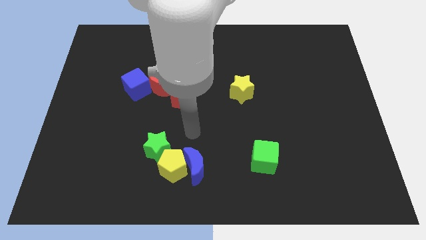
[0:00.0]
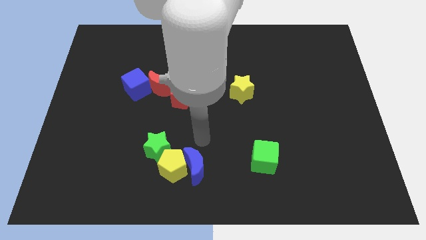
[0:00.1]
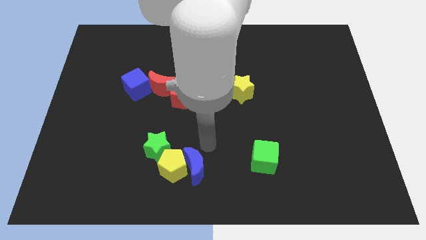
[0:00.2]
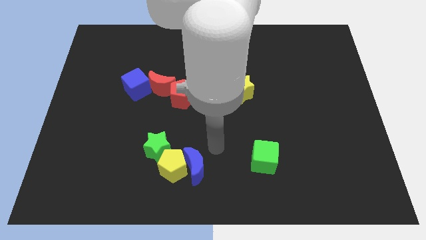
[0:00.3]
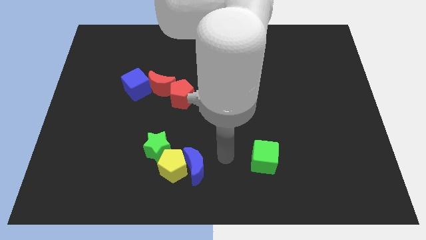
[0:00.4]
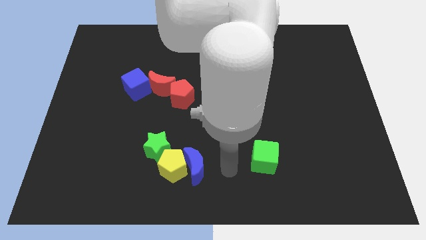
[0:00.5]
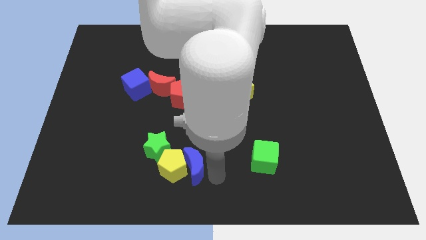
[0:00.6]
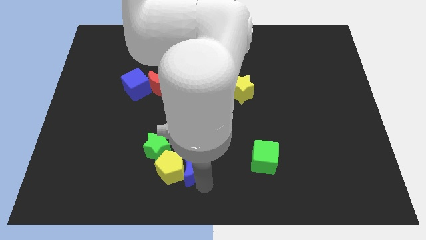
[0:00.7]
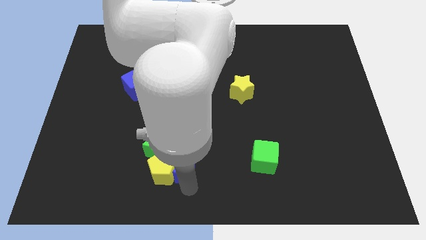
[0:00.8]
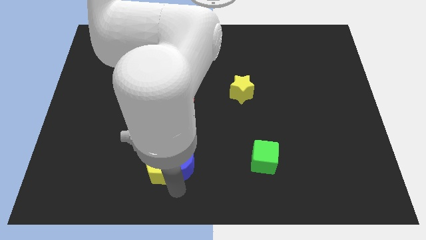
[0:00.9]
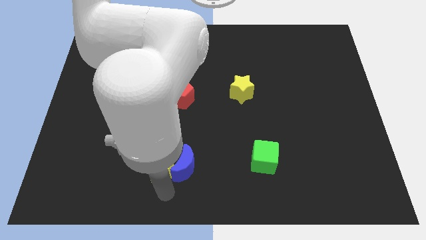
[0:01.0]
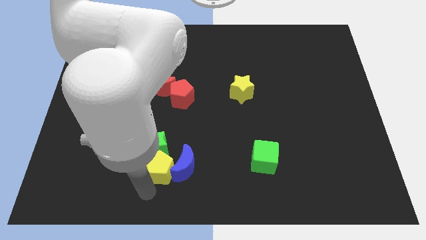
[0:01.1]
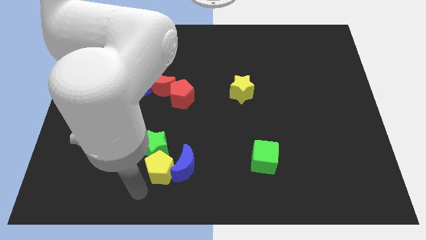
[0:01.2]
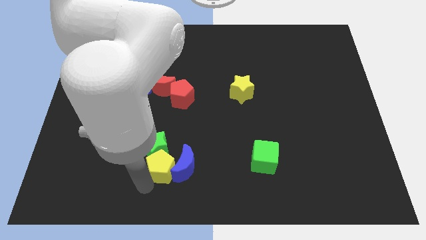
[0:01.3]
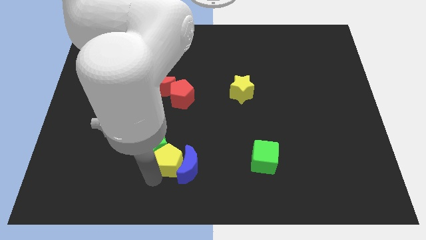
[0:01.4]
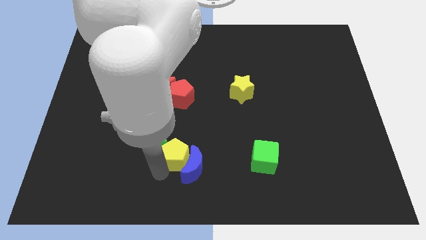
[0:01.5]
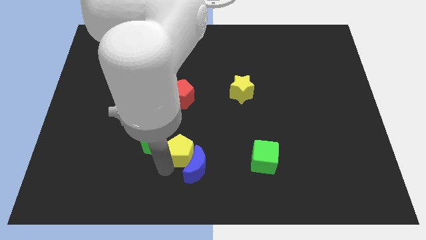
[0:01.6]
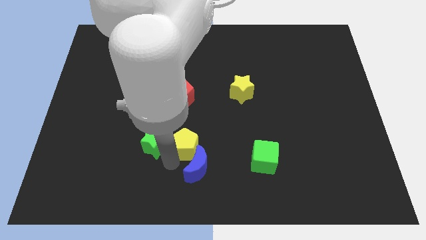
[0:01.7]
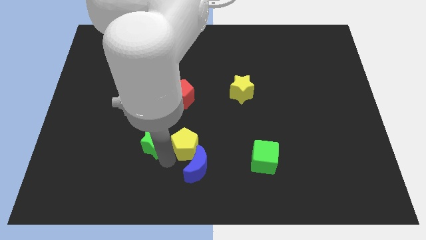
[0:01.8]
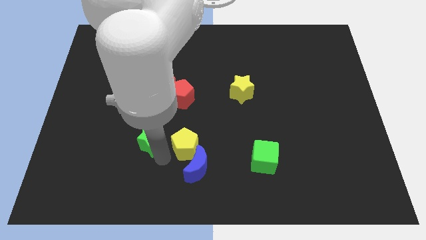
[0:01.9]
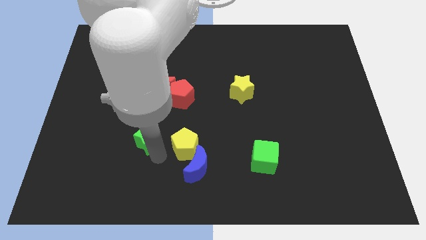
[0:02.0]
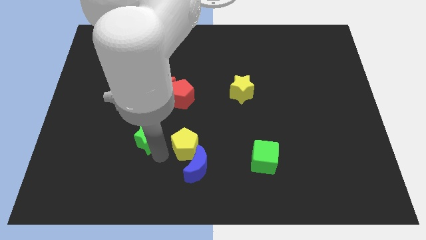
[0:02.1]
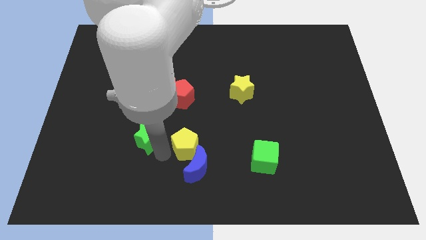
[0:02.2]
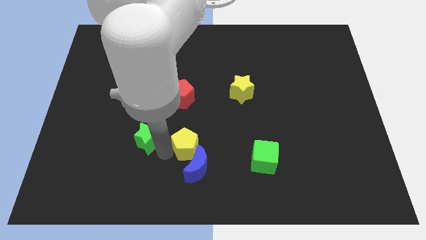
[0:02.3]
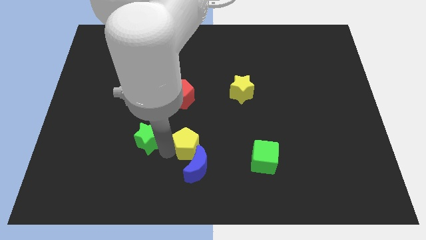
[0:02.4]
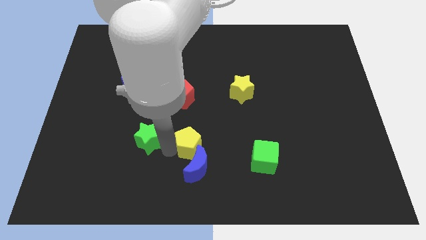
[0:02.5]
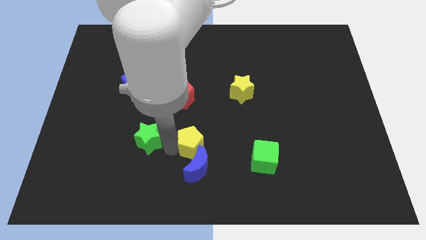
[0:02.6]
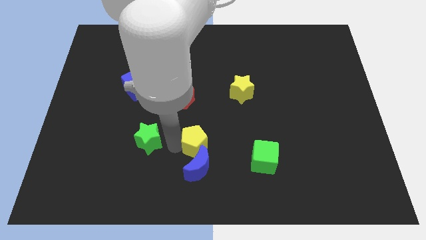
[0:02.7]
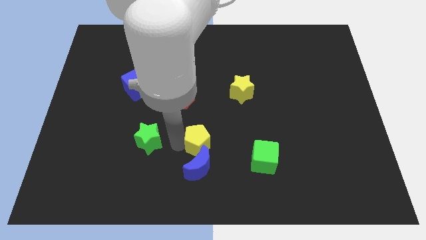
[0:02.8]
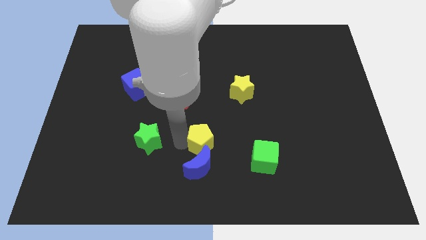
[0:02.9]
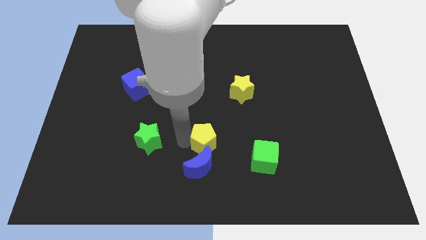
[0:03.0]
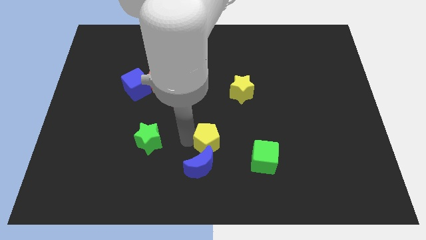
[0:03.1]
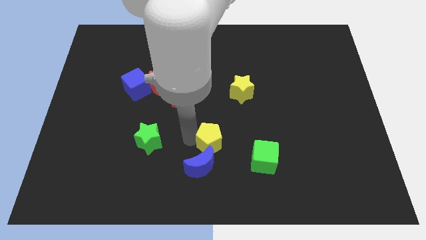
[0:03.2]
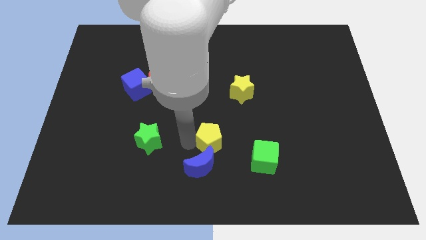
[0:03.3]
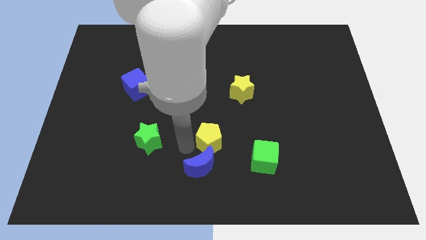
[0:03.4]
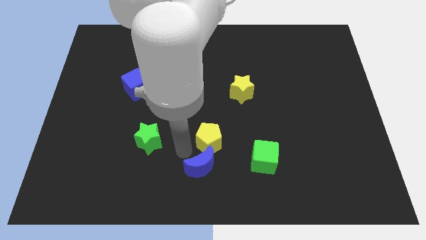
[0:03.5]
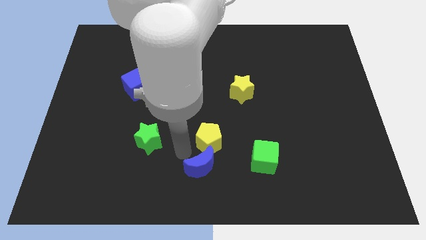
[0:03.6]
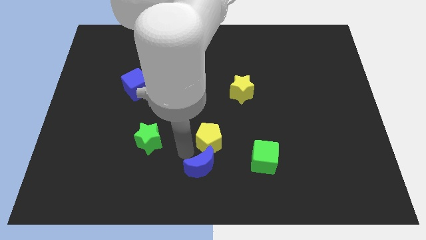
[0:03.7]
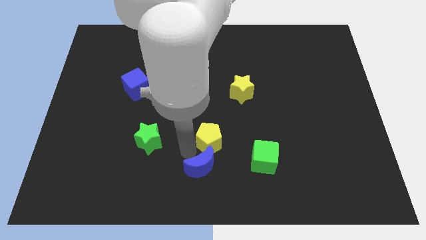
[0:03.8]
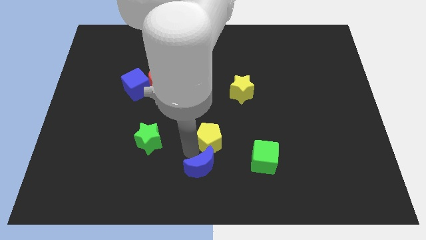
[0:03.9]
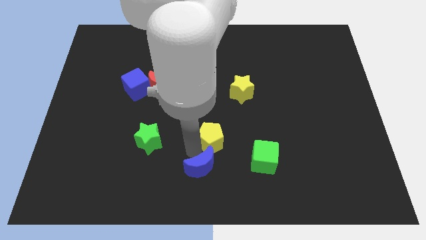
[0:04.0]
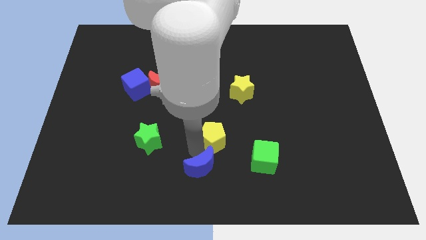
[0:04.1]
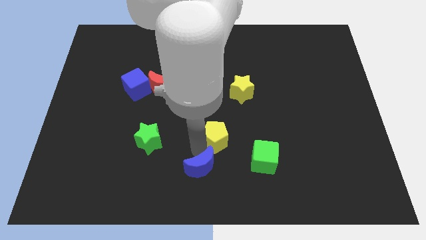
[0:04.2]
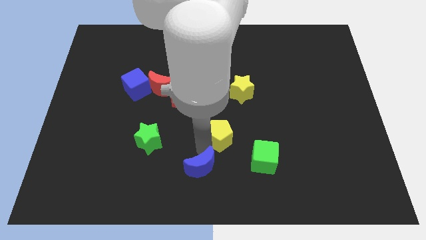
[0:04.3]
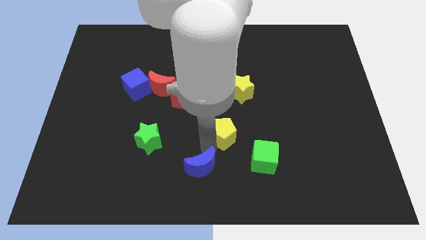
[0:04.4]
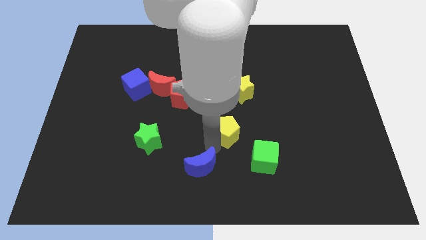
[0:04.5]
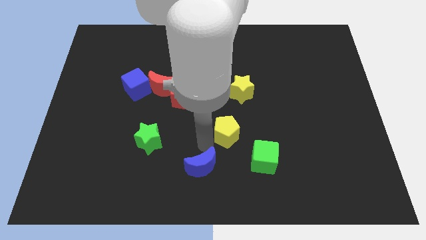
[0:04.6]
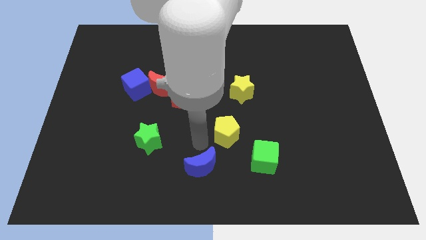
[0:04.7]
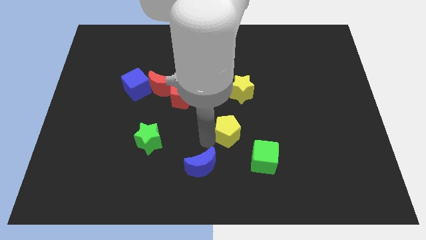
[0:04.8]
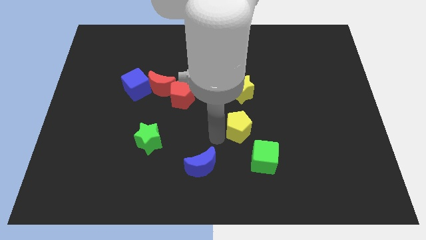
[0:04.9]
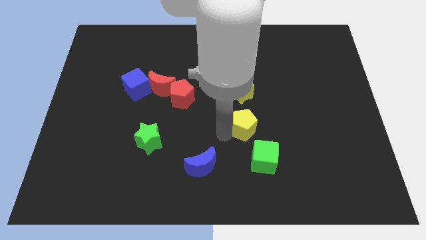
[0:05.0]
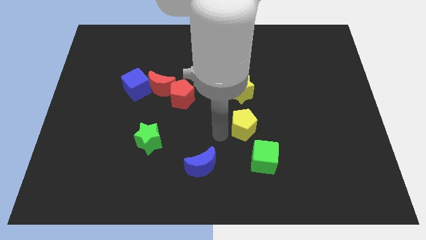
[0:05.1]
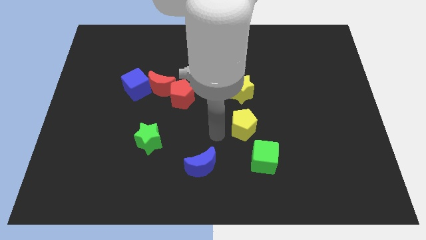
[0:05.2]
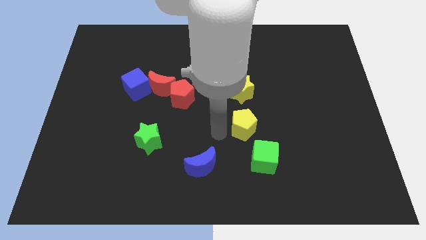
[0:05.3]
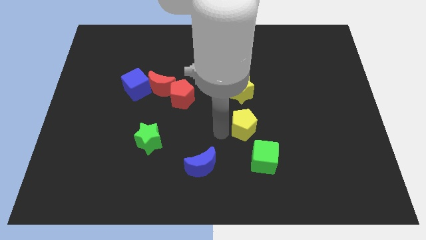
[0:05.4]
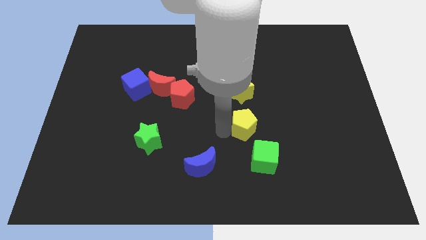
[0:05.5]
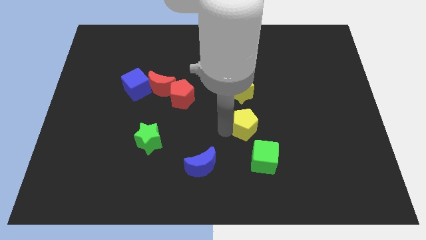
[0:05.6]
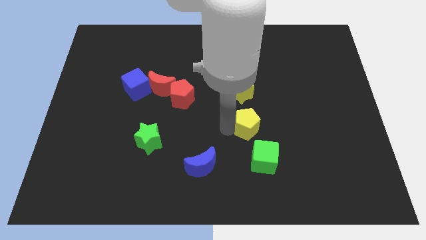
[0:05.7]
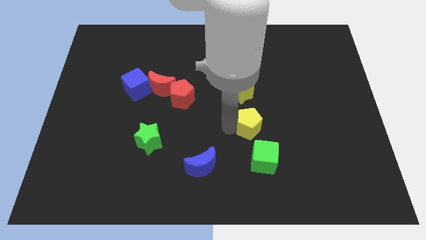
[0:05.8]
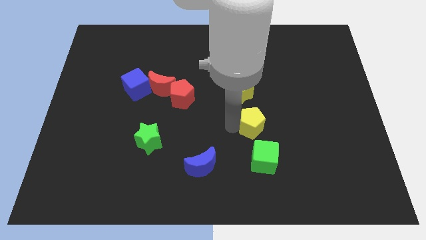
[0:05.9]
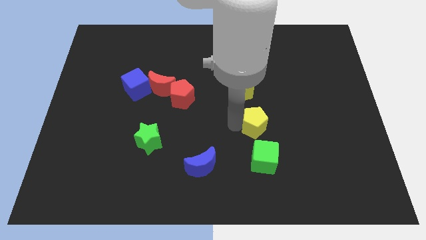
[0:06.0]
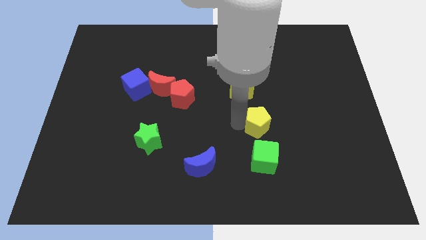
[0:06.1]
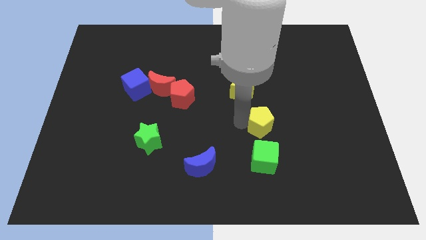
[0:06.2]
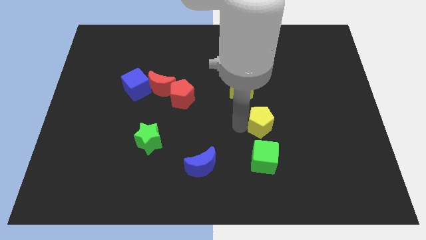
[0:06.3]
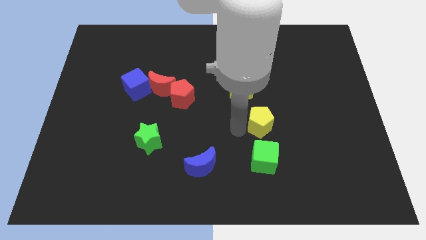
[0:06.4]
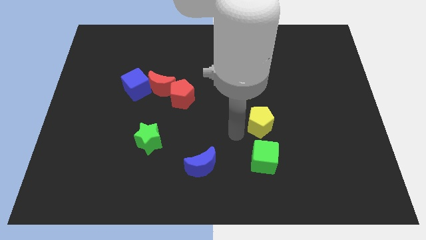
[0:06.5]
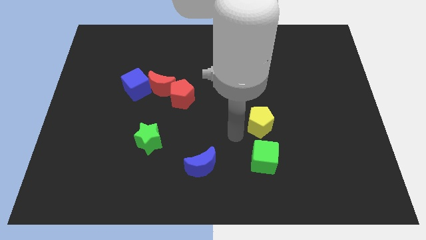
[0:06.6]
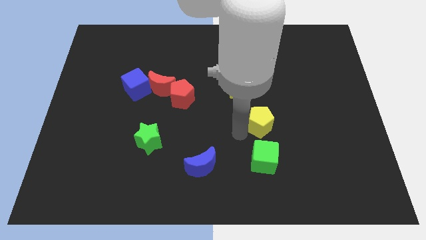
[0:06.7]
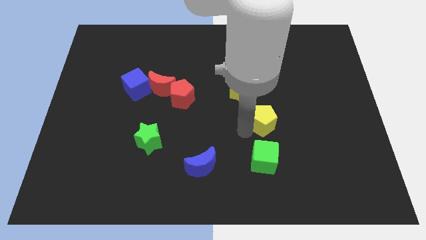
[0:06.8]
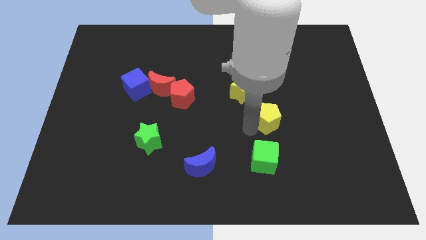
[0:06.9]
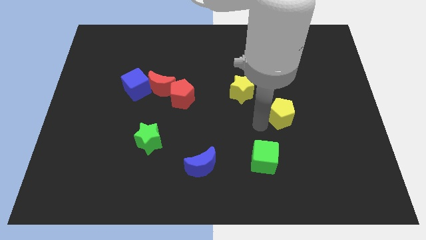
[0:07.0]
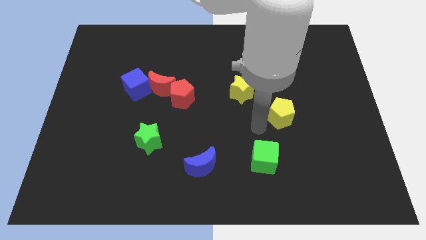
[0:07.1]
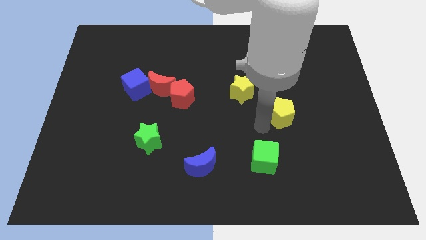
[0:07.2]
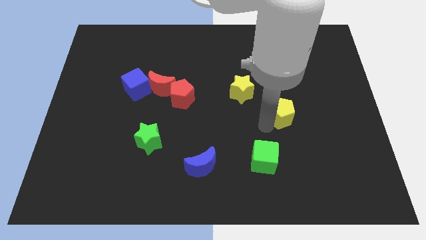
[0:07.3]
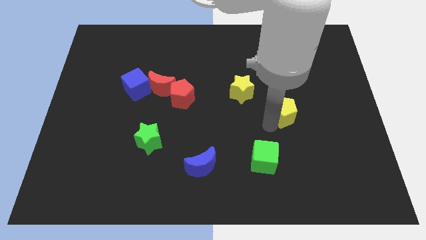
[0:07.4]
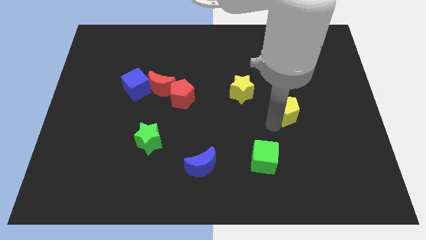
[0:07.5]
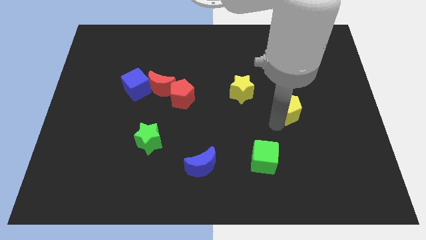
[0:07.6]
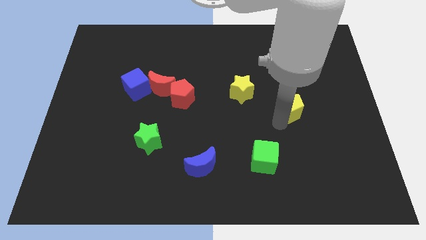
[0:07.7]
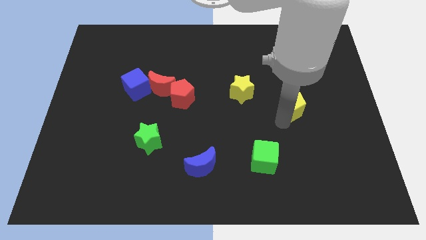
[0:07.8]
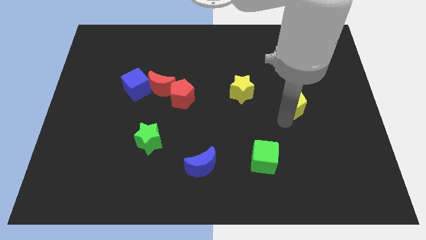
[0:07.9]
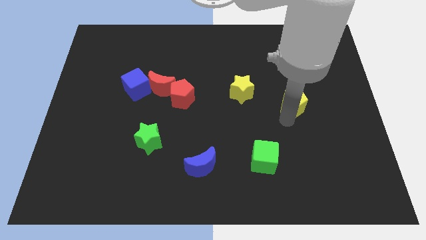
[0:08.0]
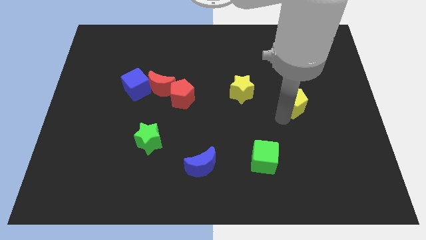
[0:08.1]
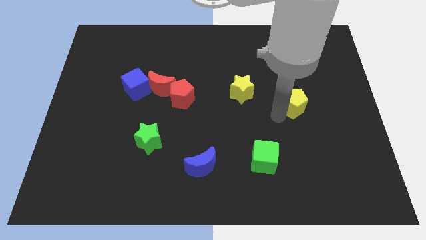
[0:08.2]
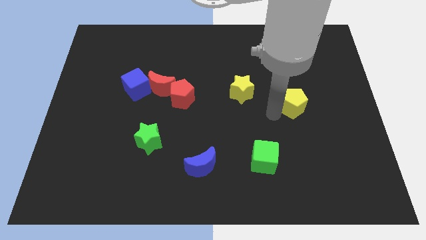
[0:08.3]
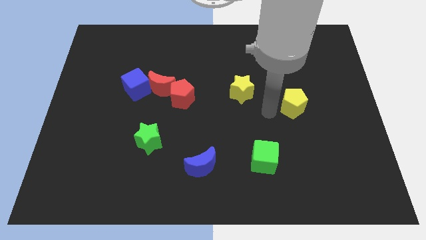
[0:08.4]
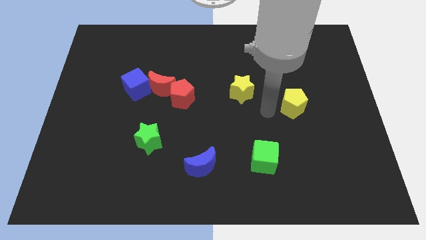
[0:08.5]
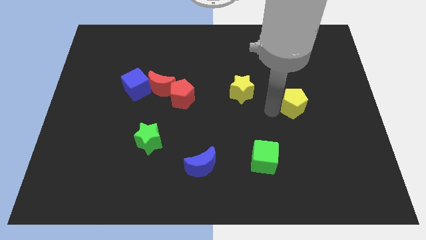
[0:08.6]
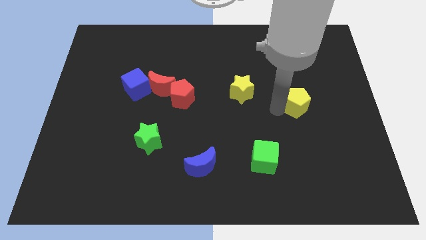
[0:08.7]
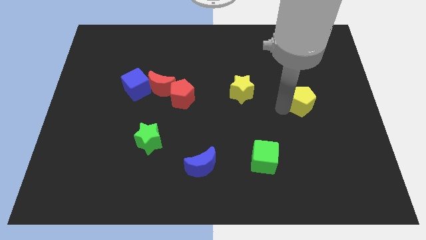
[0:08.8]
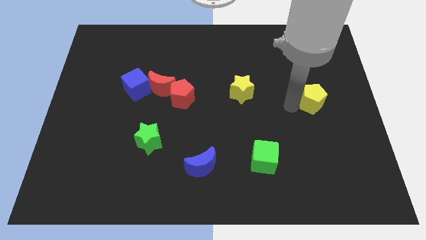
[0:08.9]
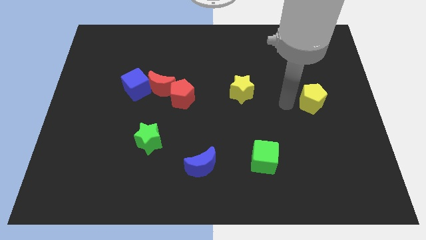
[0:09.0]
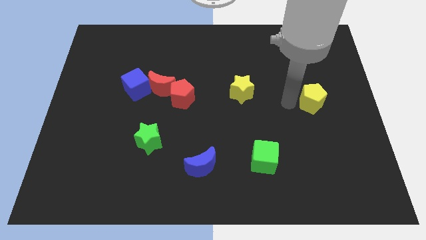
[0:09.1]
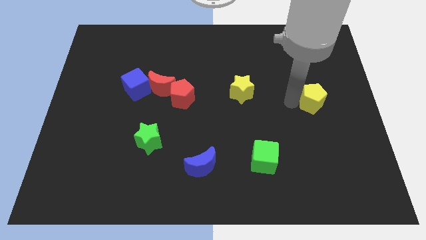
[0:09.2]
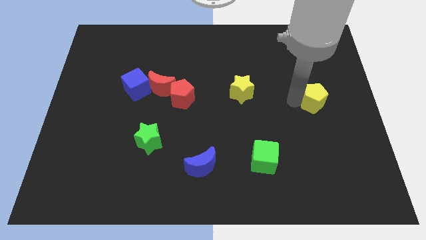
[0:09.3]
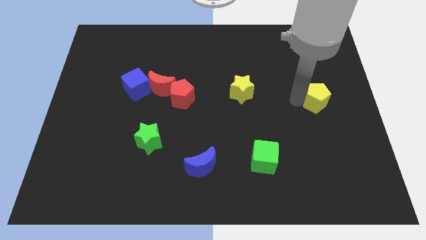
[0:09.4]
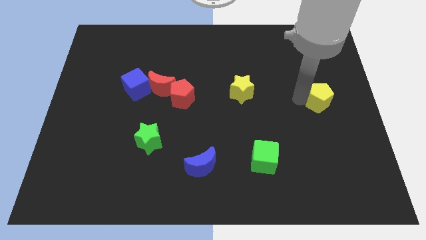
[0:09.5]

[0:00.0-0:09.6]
put the yellow pentagon to the center right
